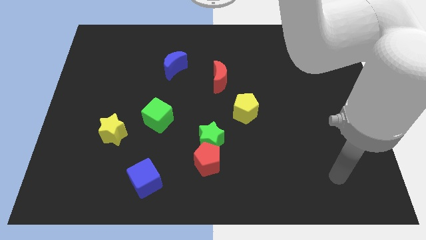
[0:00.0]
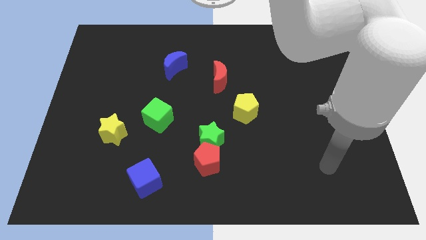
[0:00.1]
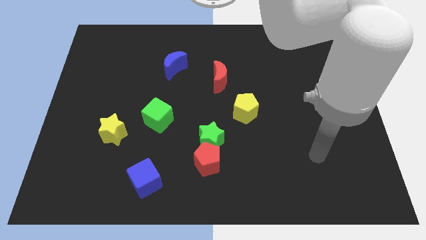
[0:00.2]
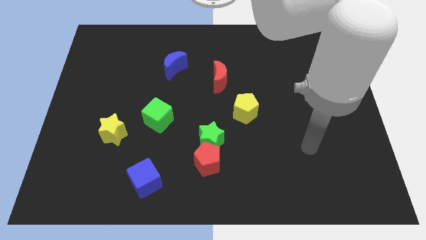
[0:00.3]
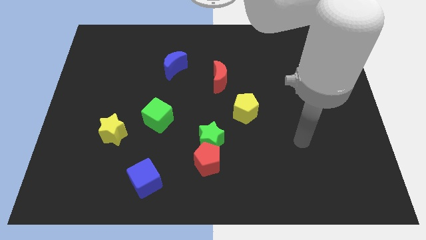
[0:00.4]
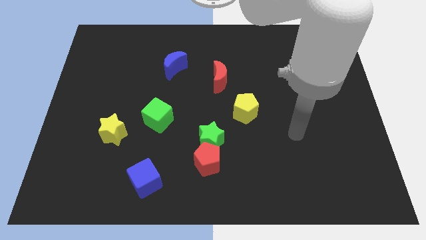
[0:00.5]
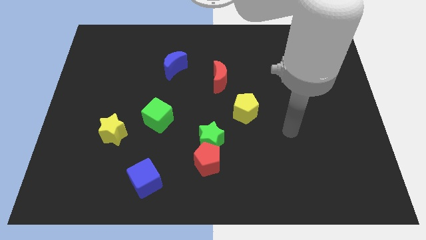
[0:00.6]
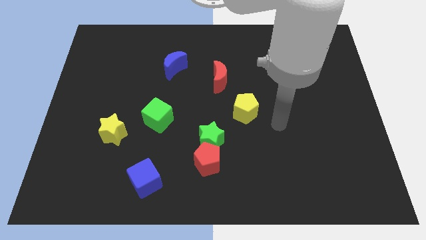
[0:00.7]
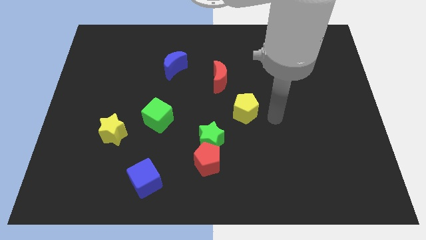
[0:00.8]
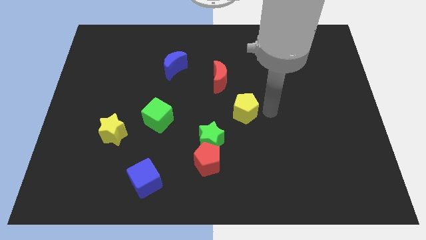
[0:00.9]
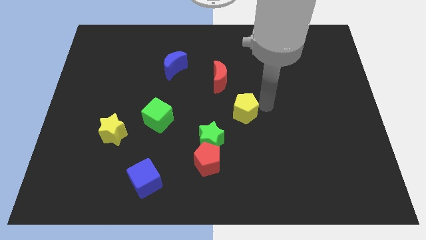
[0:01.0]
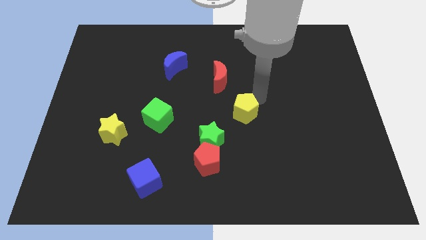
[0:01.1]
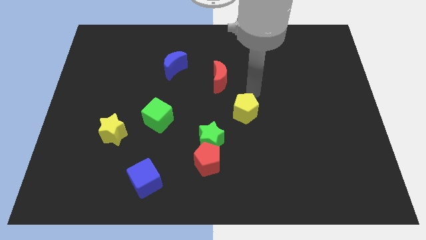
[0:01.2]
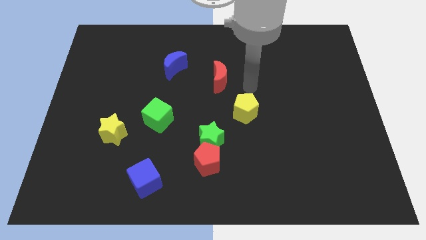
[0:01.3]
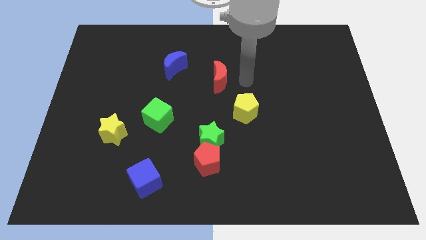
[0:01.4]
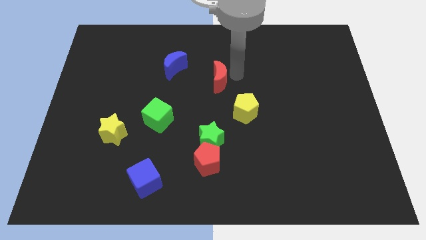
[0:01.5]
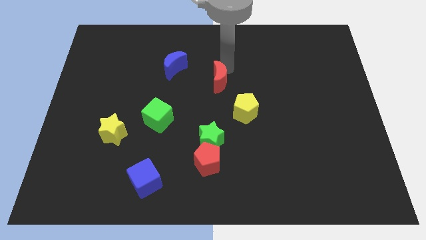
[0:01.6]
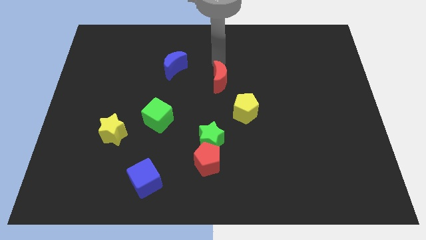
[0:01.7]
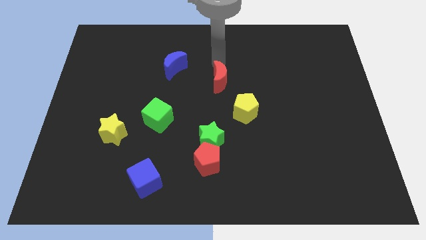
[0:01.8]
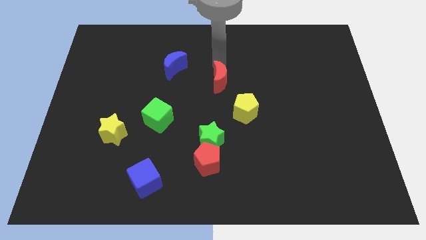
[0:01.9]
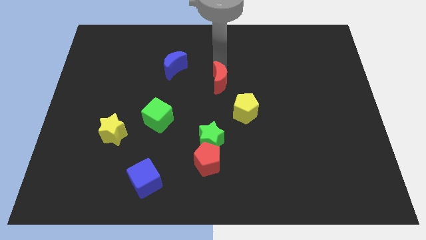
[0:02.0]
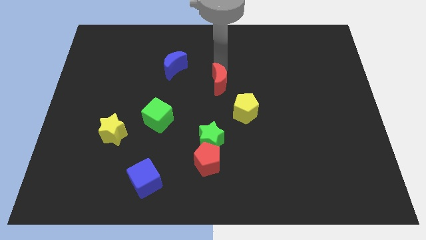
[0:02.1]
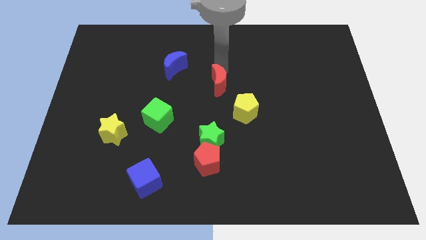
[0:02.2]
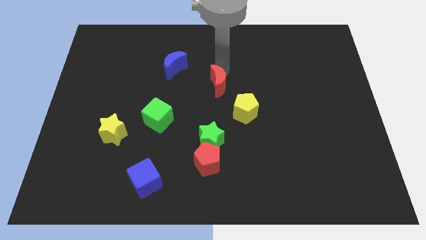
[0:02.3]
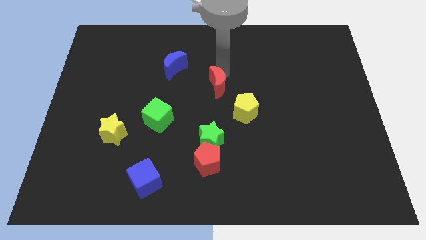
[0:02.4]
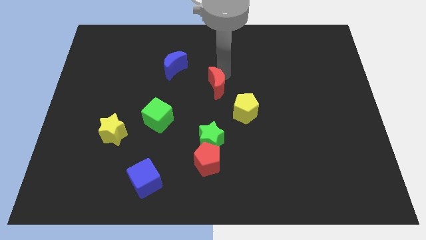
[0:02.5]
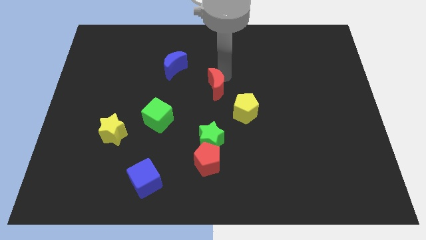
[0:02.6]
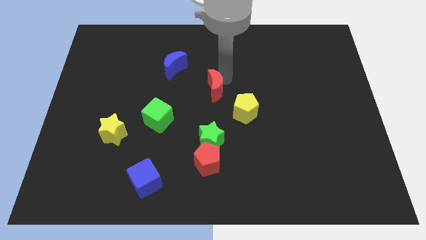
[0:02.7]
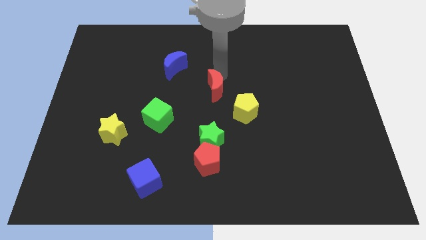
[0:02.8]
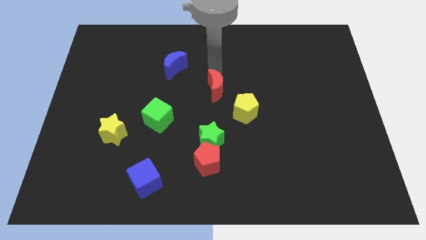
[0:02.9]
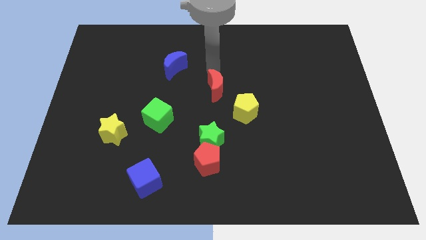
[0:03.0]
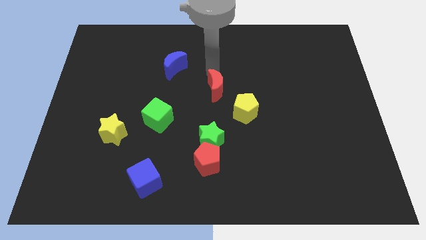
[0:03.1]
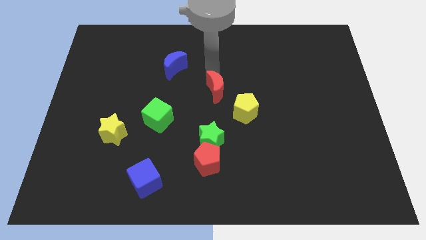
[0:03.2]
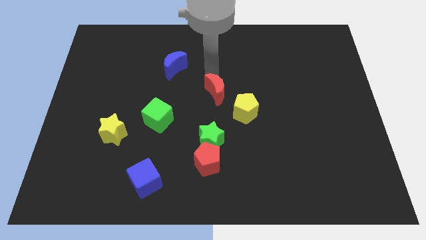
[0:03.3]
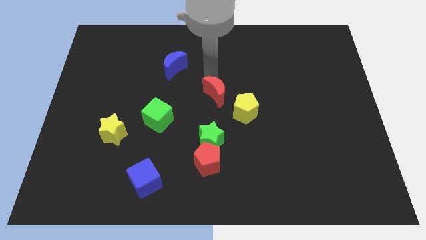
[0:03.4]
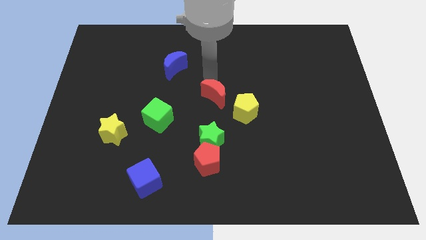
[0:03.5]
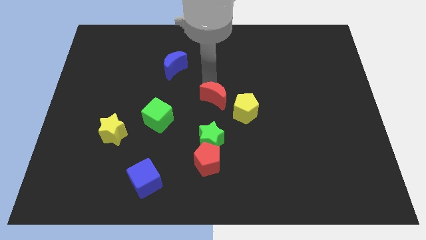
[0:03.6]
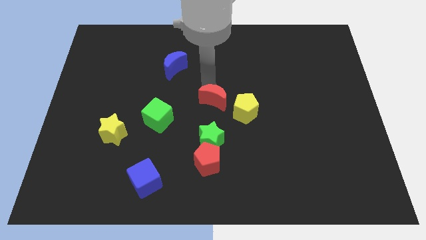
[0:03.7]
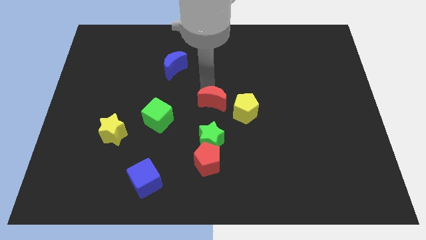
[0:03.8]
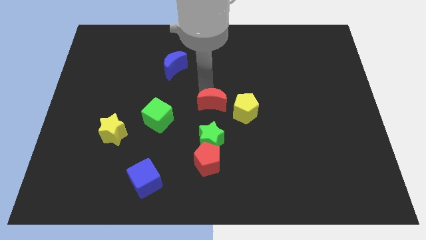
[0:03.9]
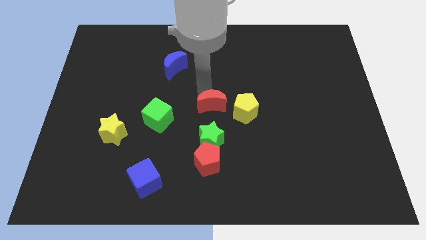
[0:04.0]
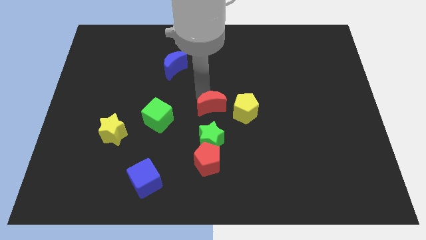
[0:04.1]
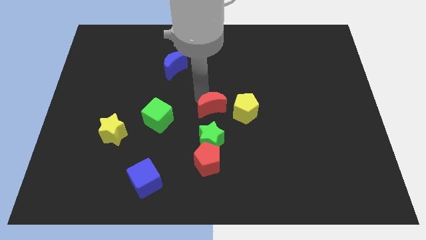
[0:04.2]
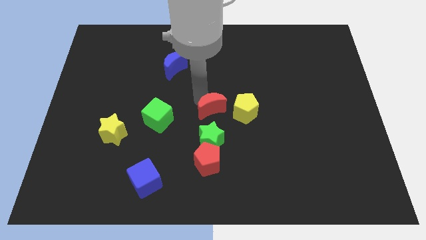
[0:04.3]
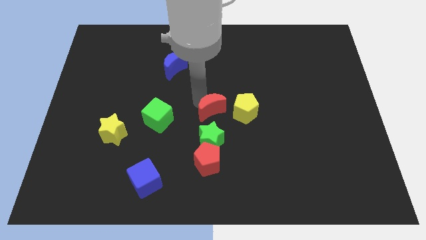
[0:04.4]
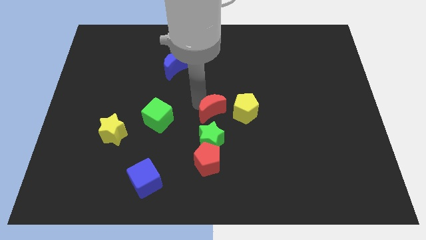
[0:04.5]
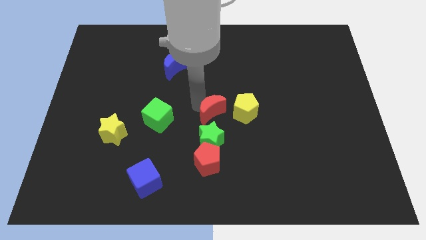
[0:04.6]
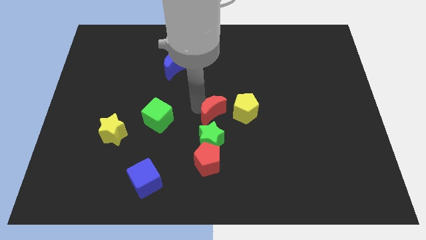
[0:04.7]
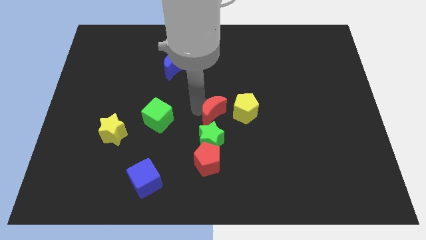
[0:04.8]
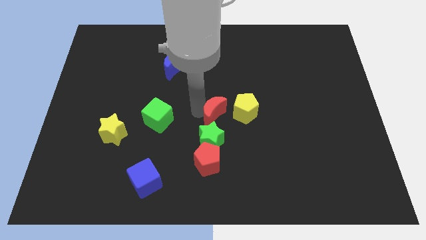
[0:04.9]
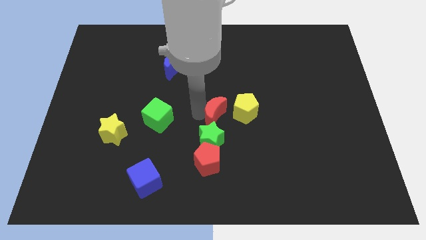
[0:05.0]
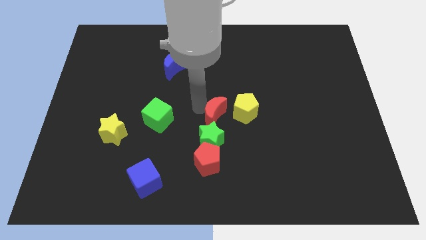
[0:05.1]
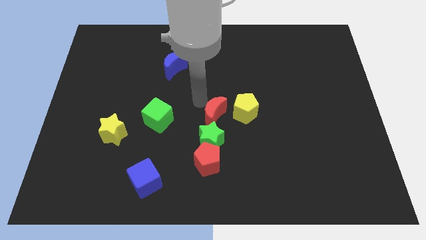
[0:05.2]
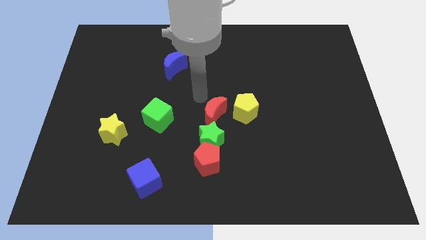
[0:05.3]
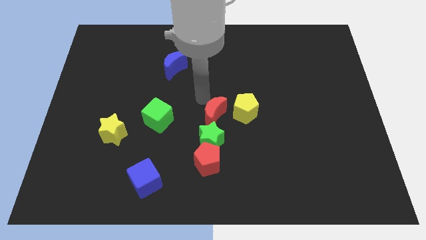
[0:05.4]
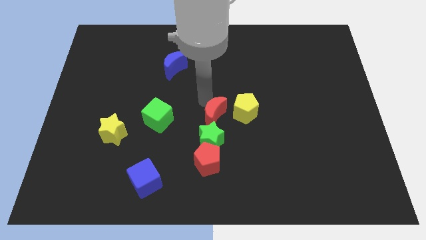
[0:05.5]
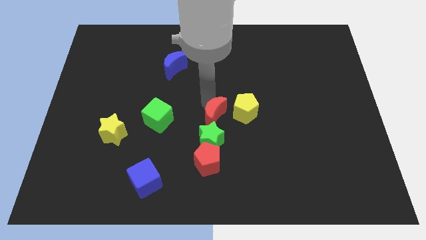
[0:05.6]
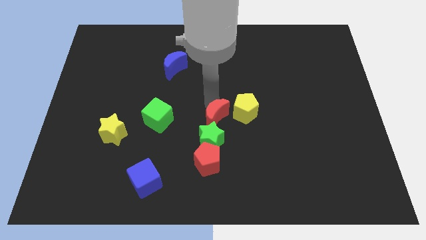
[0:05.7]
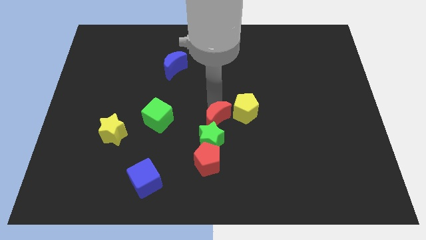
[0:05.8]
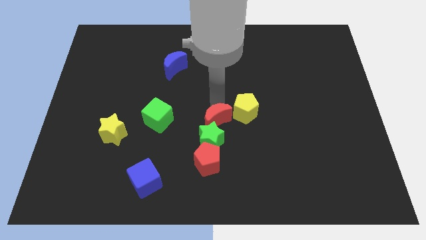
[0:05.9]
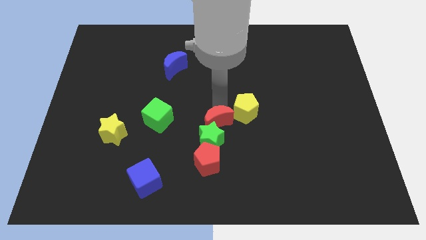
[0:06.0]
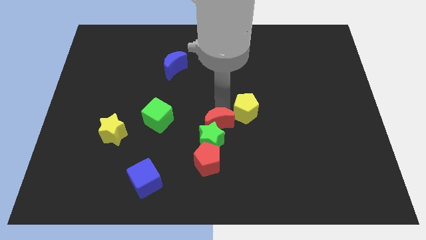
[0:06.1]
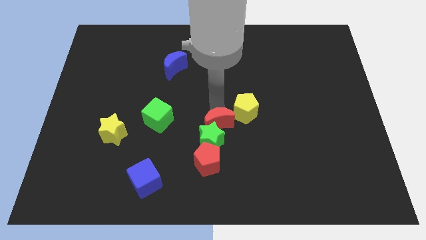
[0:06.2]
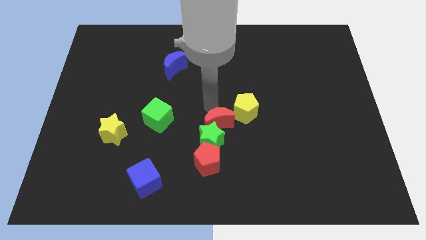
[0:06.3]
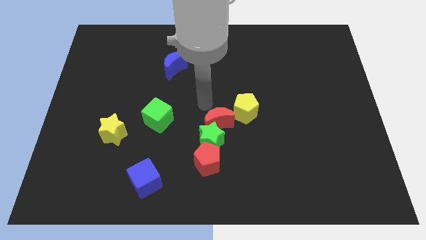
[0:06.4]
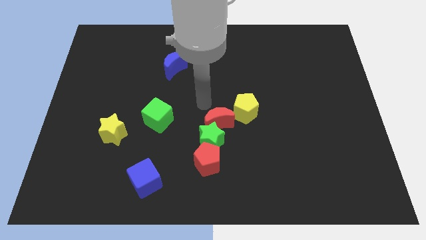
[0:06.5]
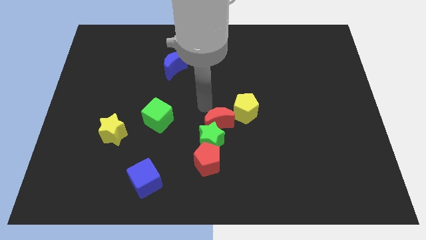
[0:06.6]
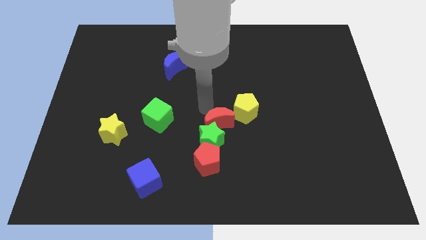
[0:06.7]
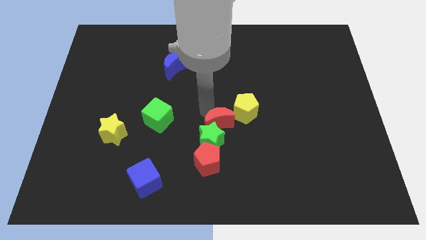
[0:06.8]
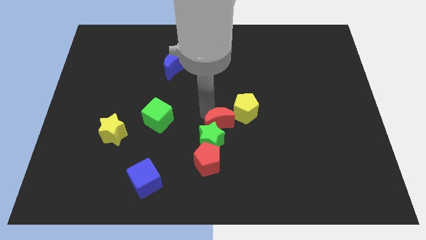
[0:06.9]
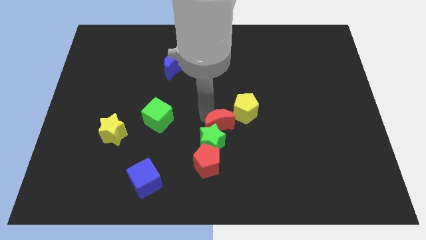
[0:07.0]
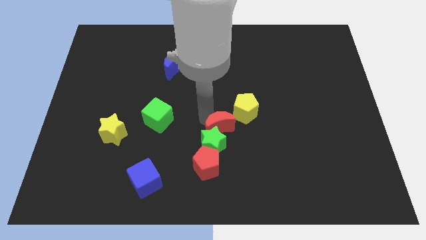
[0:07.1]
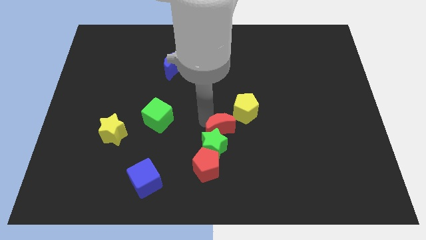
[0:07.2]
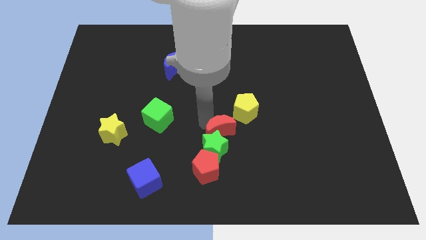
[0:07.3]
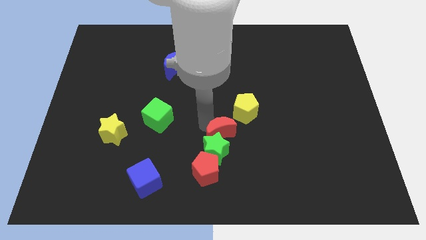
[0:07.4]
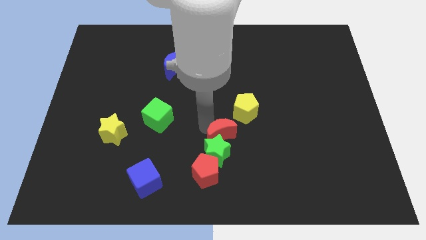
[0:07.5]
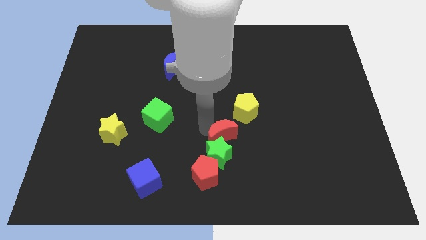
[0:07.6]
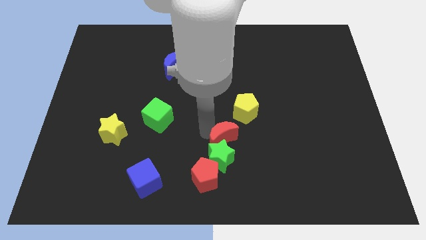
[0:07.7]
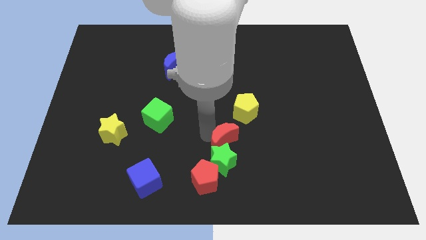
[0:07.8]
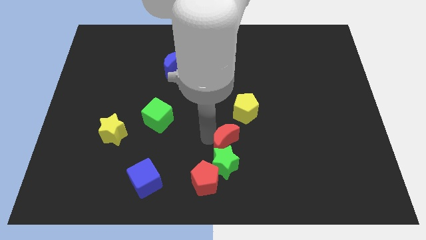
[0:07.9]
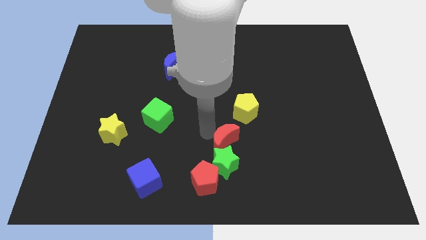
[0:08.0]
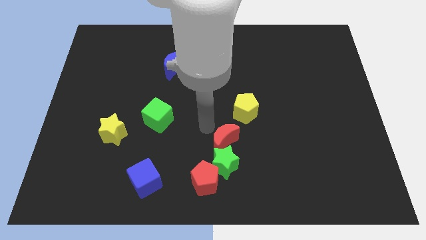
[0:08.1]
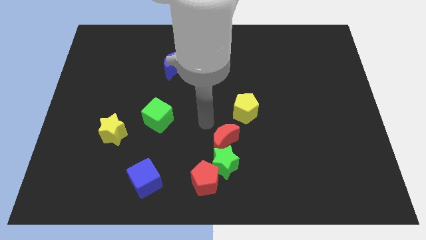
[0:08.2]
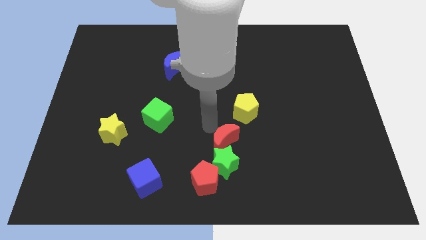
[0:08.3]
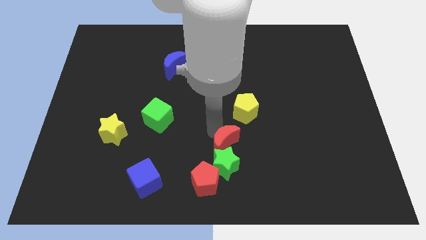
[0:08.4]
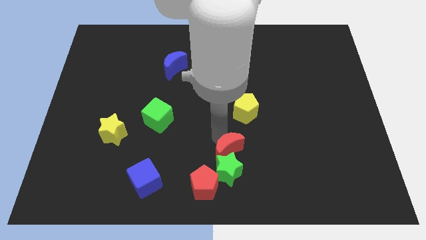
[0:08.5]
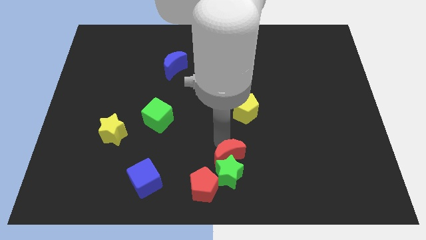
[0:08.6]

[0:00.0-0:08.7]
put the red moon to the bottom
